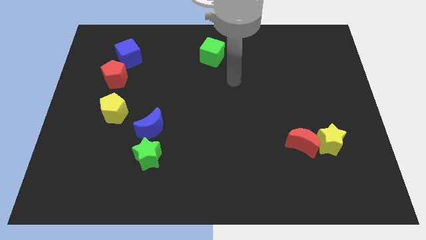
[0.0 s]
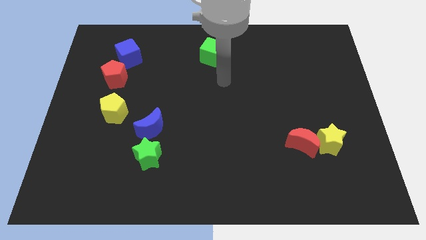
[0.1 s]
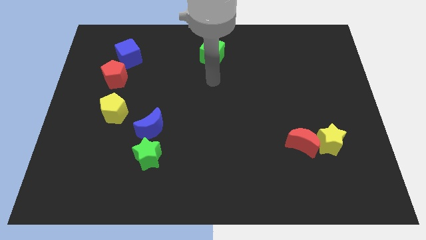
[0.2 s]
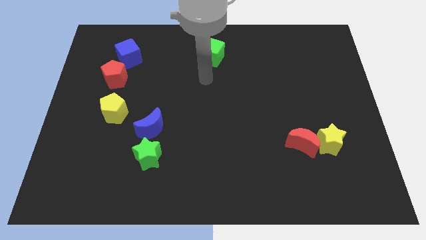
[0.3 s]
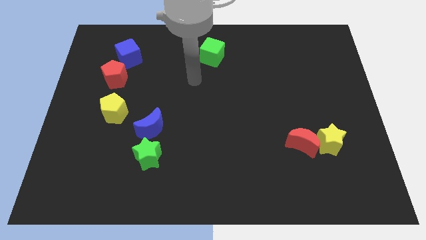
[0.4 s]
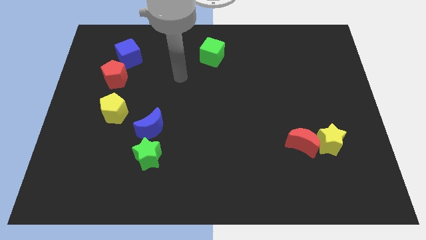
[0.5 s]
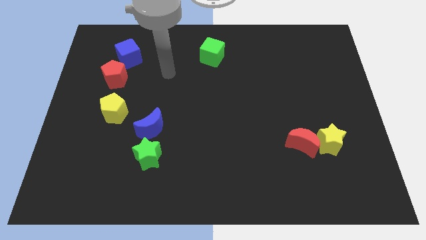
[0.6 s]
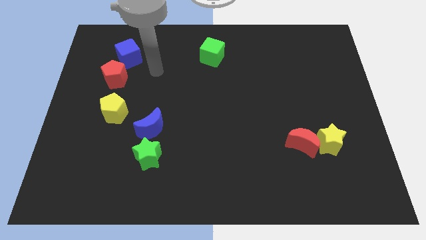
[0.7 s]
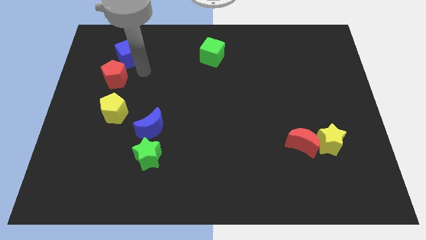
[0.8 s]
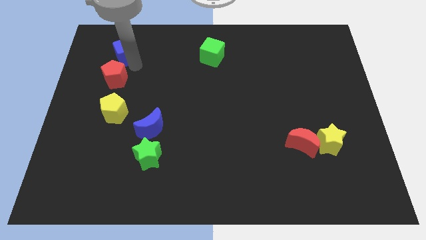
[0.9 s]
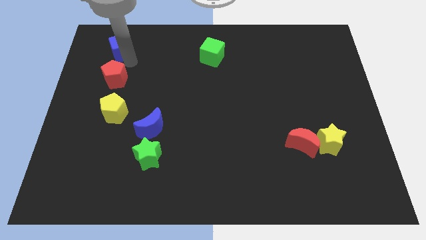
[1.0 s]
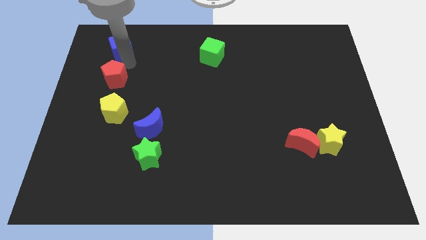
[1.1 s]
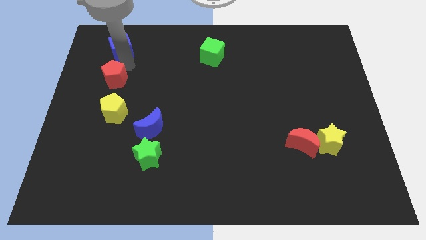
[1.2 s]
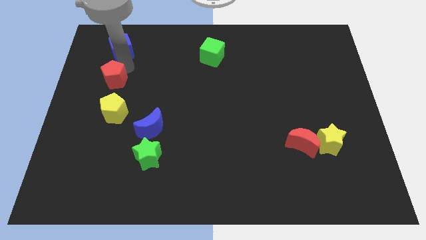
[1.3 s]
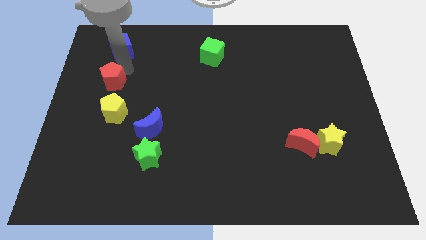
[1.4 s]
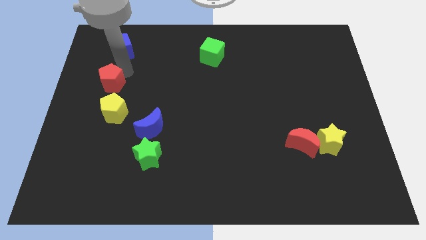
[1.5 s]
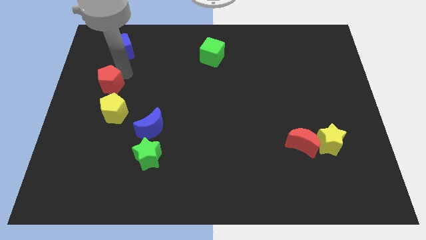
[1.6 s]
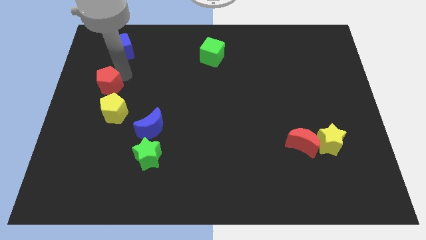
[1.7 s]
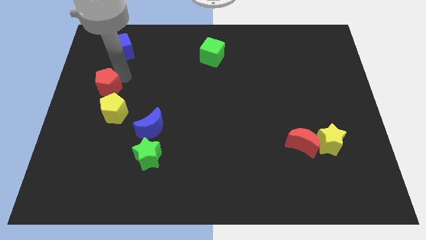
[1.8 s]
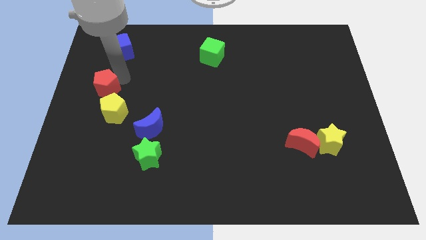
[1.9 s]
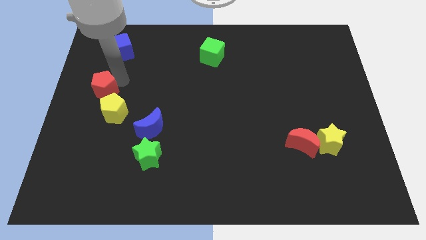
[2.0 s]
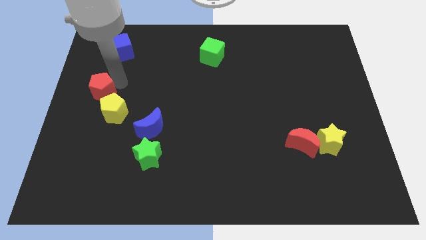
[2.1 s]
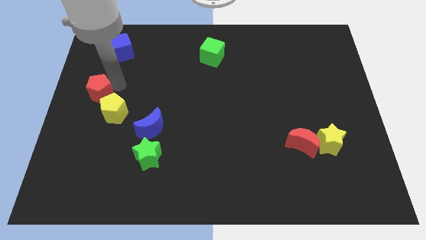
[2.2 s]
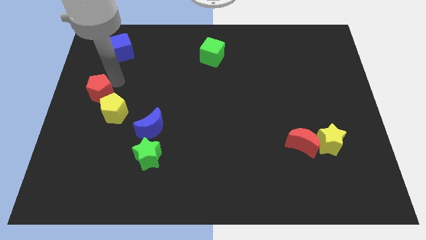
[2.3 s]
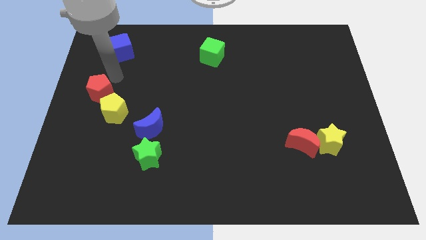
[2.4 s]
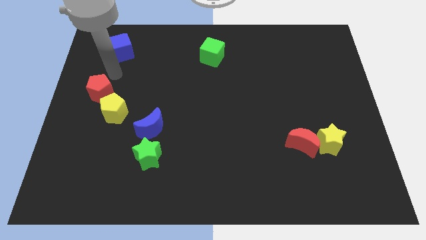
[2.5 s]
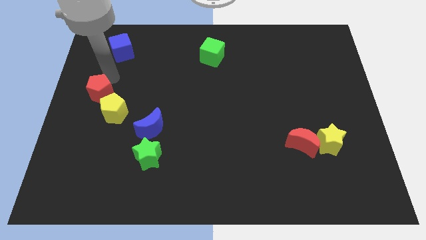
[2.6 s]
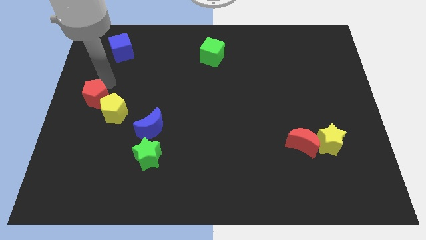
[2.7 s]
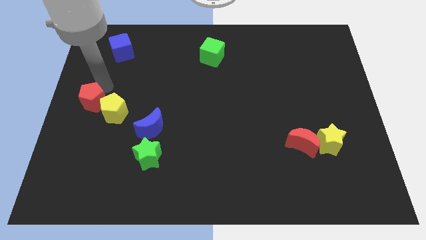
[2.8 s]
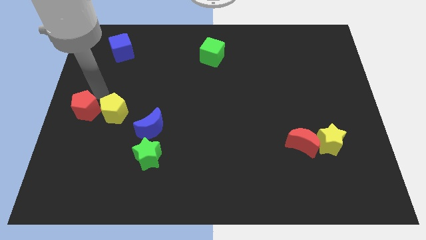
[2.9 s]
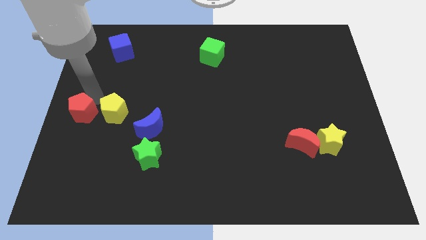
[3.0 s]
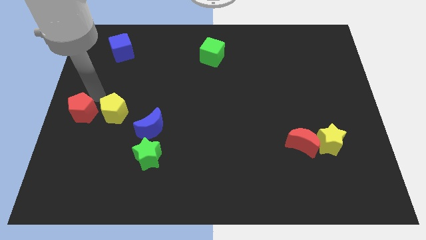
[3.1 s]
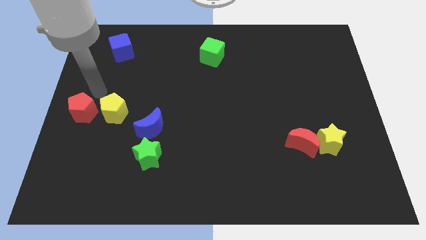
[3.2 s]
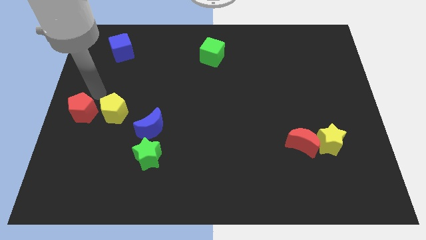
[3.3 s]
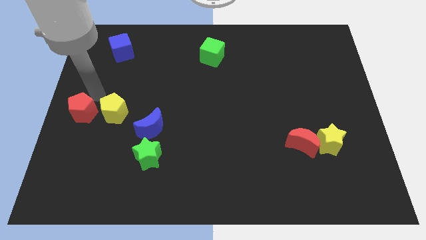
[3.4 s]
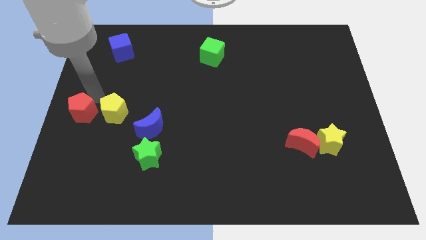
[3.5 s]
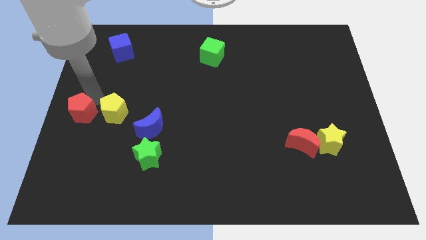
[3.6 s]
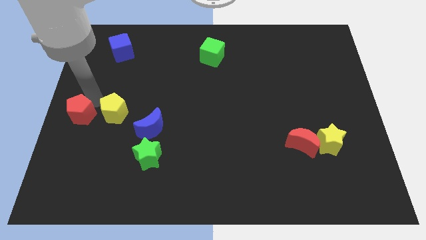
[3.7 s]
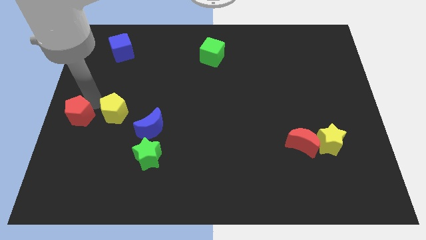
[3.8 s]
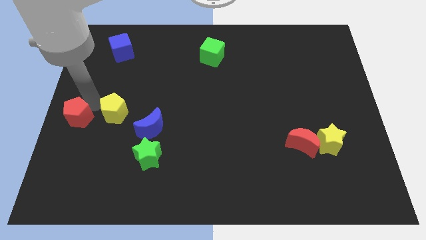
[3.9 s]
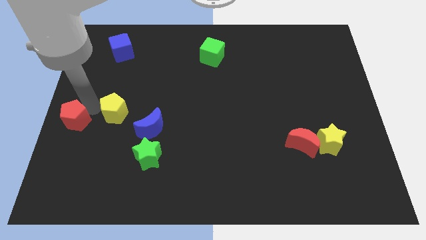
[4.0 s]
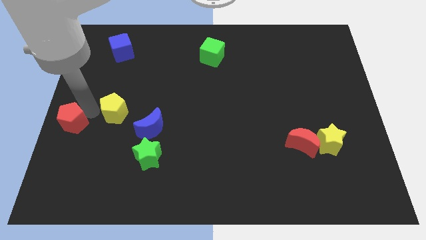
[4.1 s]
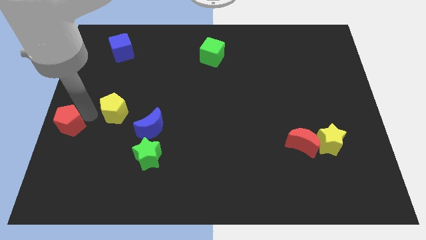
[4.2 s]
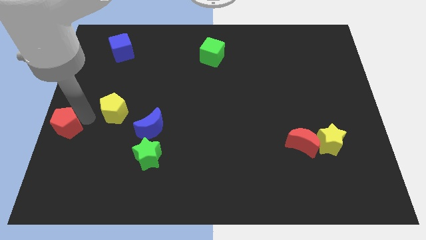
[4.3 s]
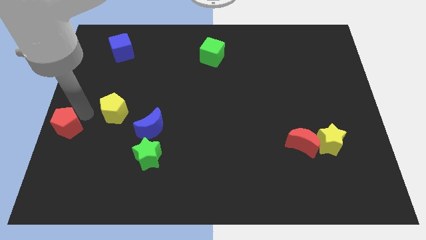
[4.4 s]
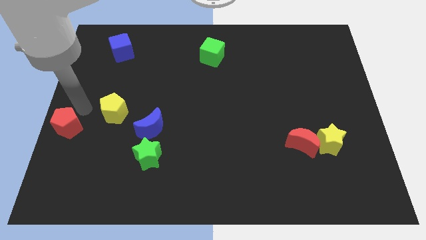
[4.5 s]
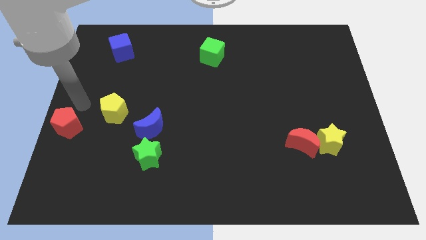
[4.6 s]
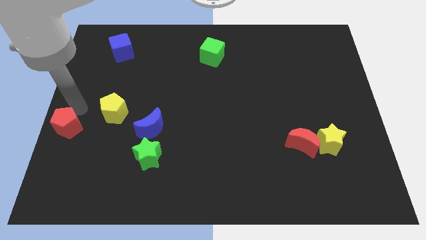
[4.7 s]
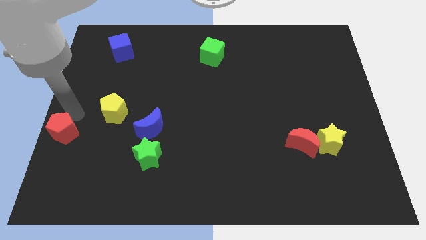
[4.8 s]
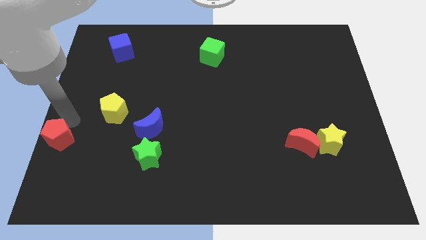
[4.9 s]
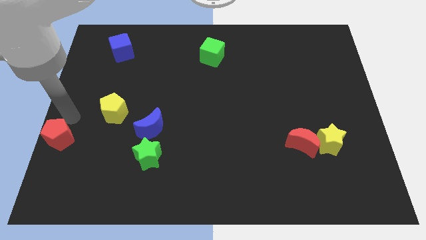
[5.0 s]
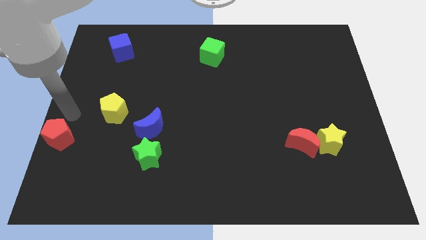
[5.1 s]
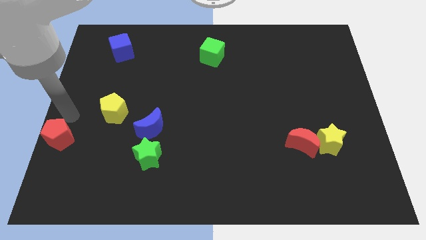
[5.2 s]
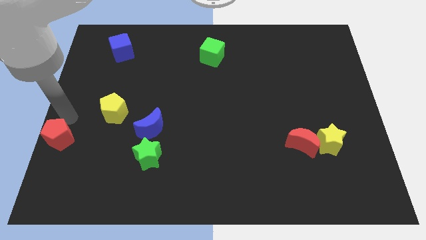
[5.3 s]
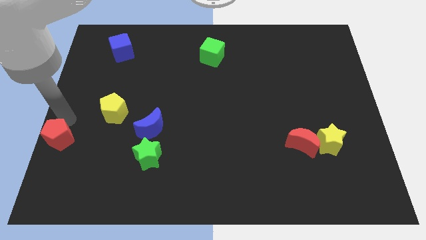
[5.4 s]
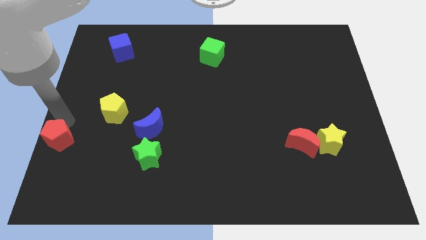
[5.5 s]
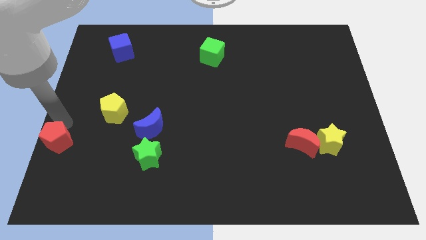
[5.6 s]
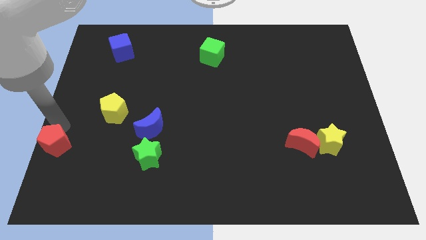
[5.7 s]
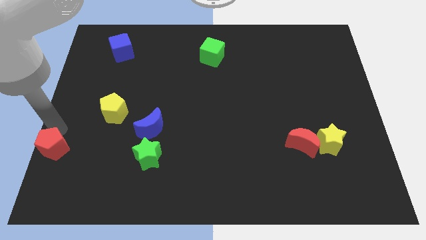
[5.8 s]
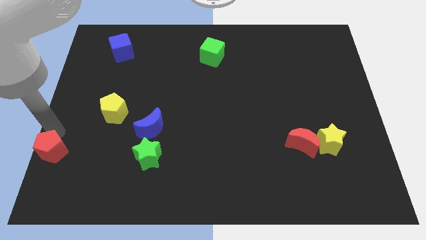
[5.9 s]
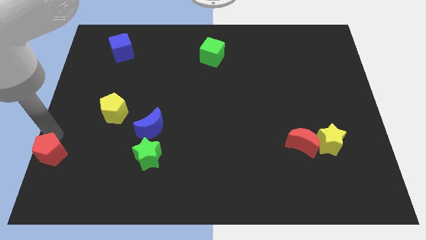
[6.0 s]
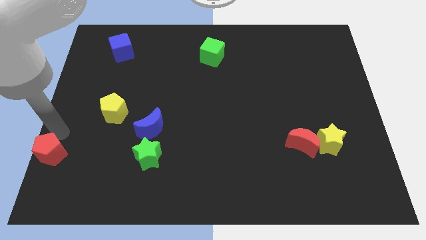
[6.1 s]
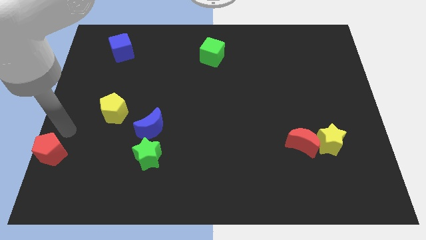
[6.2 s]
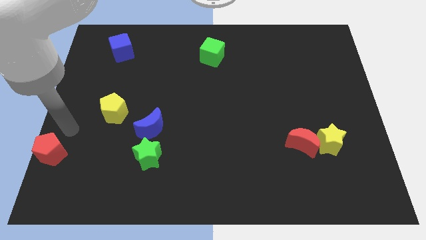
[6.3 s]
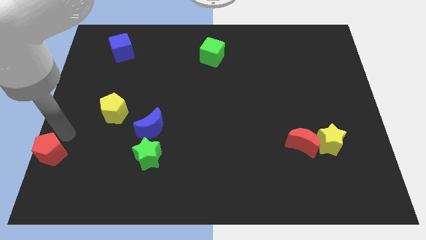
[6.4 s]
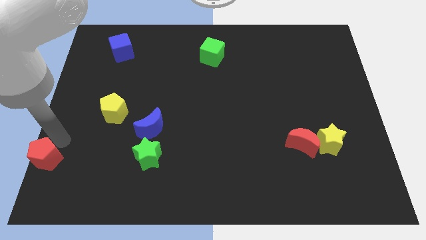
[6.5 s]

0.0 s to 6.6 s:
slide the red pentagon to the bottom left

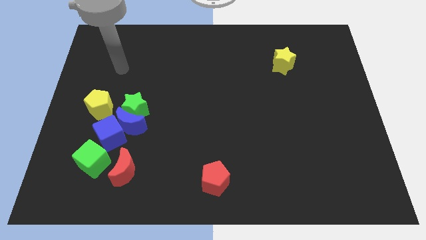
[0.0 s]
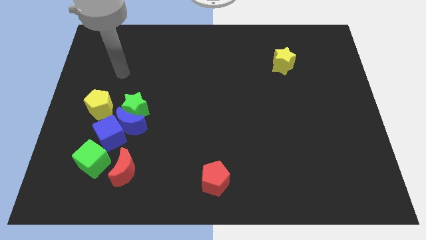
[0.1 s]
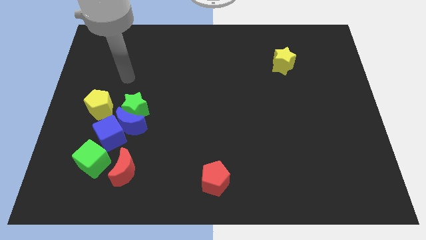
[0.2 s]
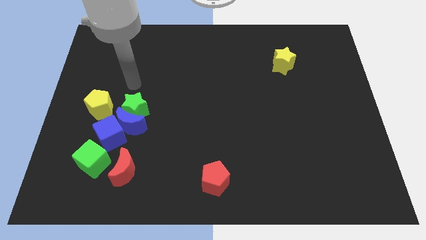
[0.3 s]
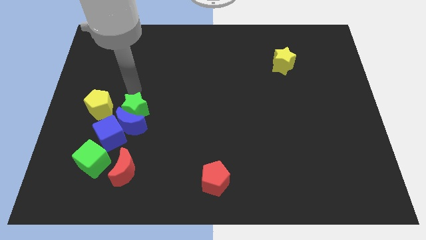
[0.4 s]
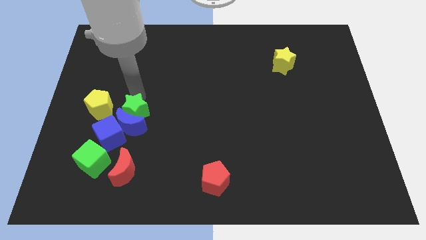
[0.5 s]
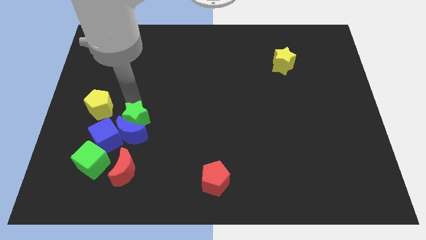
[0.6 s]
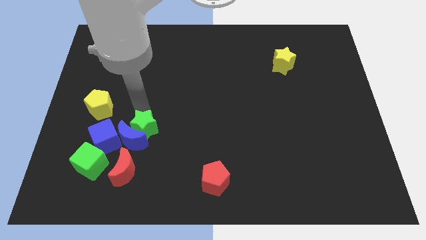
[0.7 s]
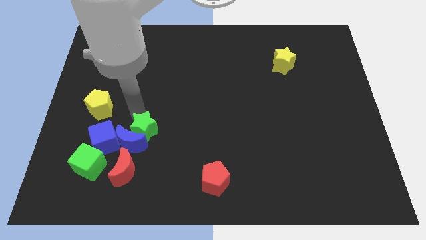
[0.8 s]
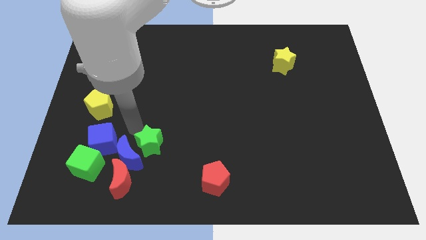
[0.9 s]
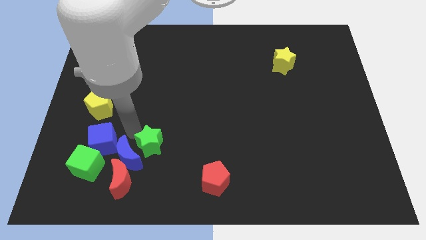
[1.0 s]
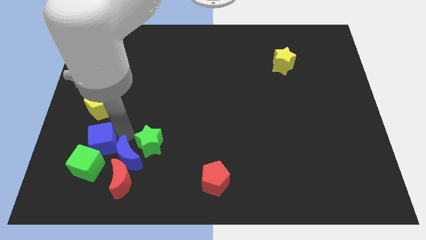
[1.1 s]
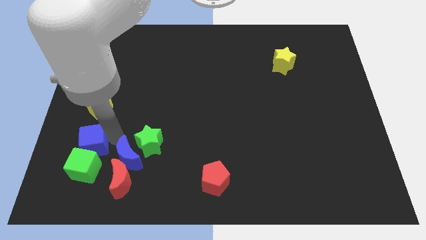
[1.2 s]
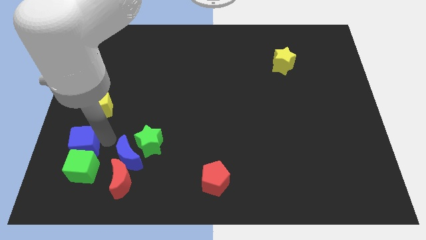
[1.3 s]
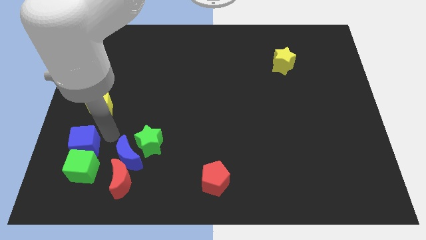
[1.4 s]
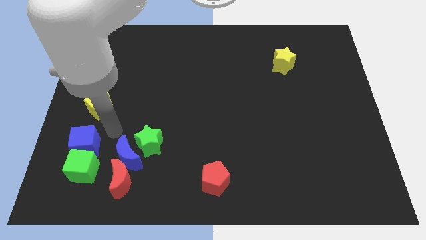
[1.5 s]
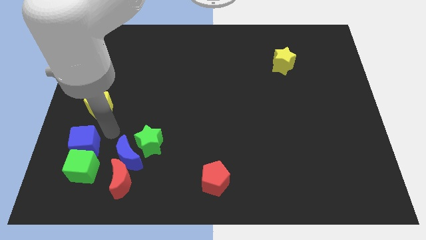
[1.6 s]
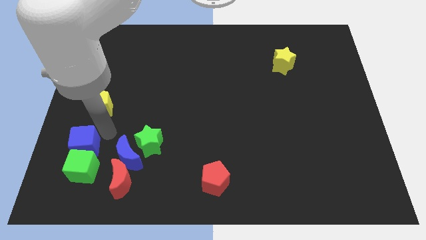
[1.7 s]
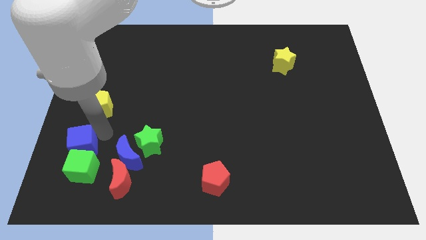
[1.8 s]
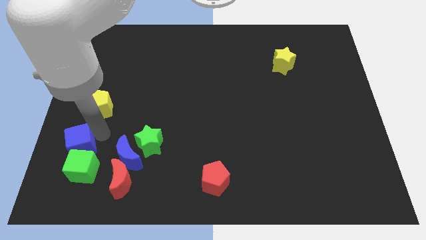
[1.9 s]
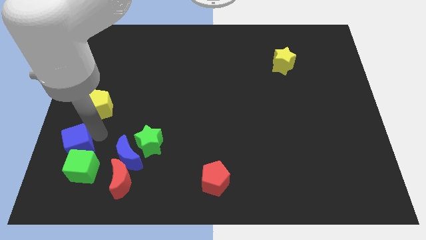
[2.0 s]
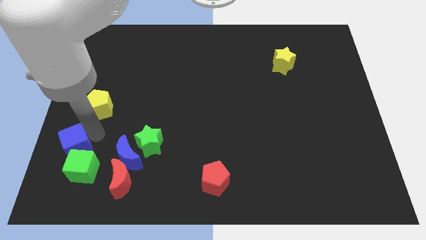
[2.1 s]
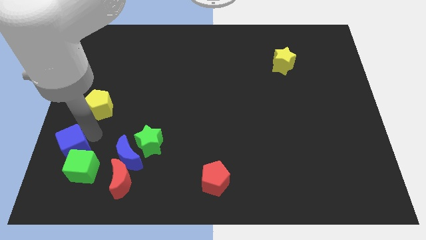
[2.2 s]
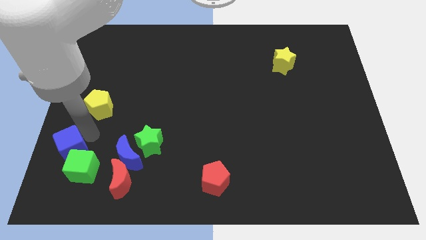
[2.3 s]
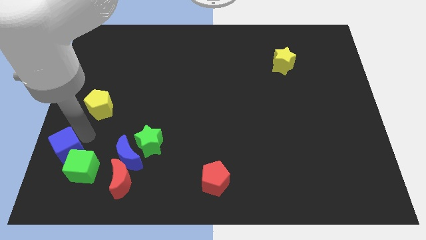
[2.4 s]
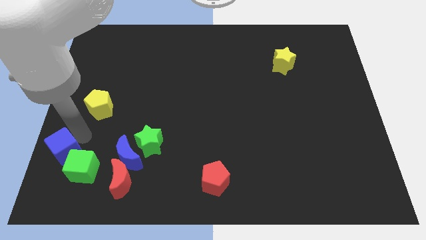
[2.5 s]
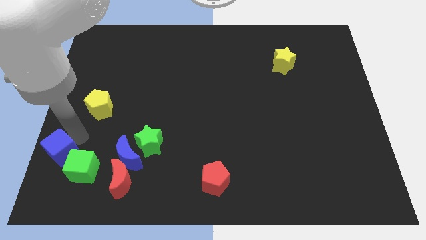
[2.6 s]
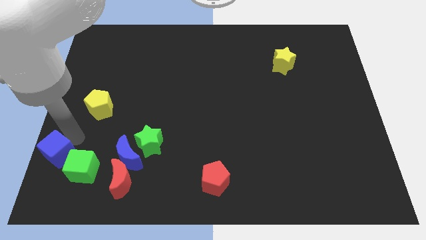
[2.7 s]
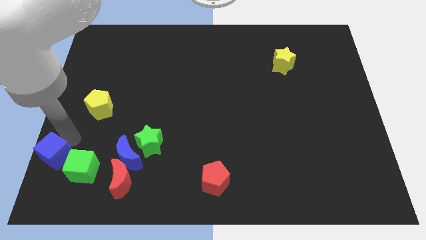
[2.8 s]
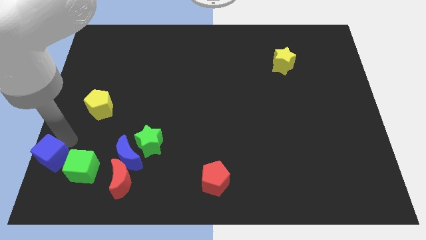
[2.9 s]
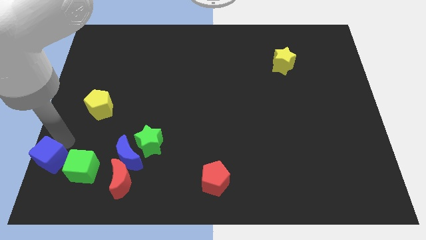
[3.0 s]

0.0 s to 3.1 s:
move the blue cube to the bottom left
